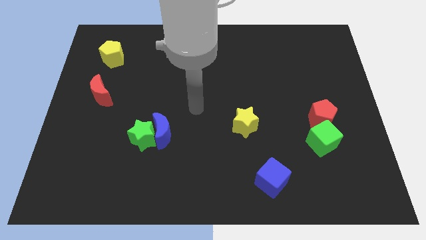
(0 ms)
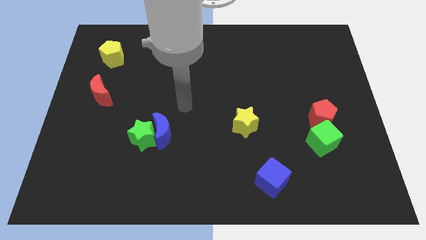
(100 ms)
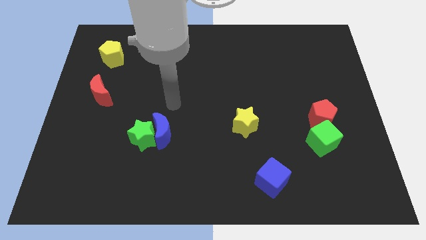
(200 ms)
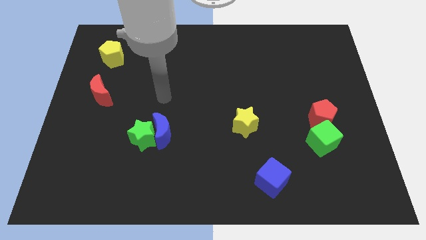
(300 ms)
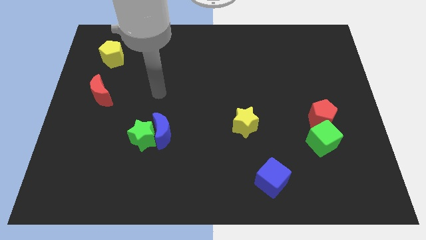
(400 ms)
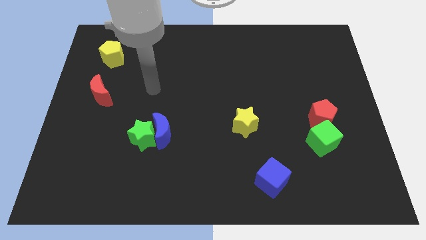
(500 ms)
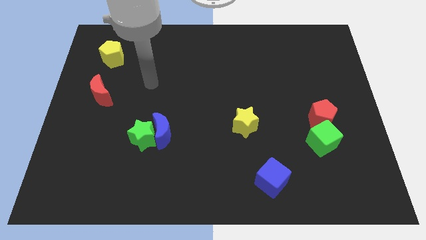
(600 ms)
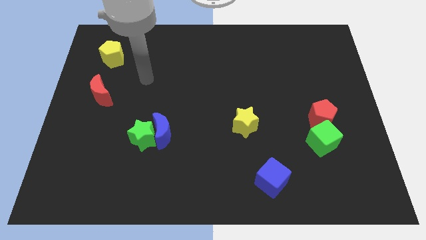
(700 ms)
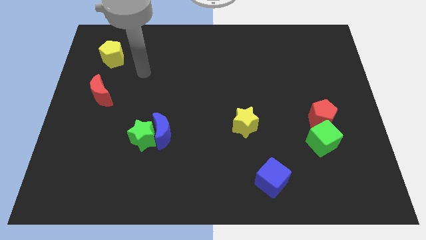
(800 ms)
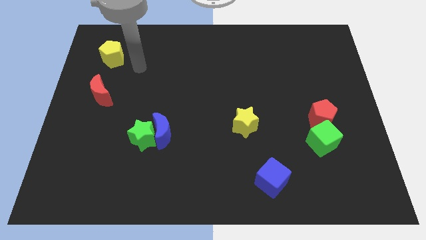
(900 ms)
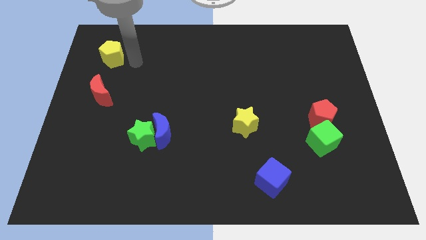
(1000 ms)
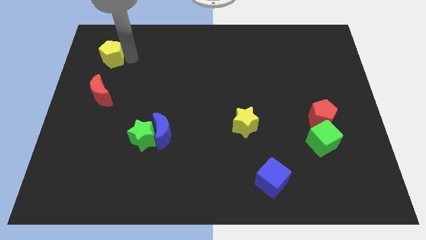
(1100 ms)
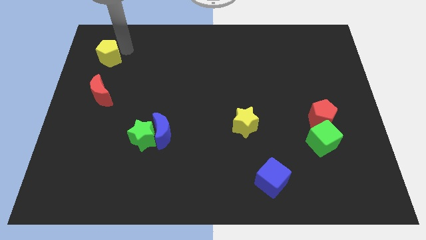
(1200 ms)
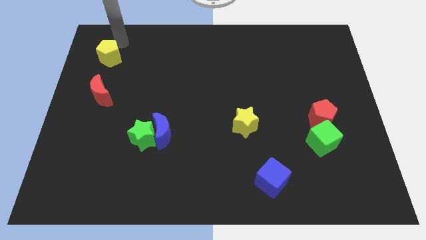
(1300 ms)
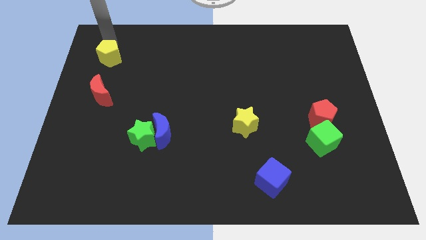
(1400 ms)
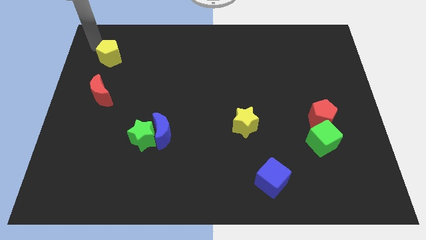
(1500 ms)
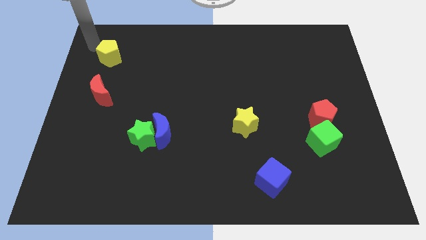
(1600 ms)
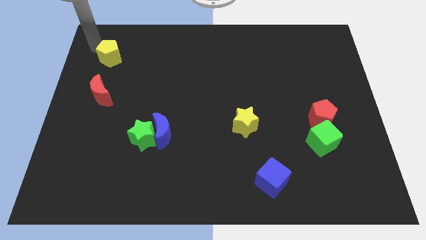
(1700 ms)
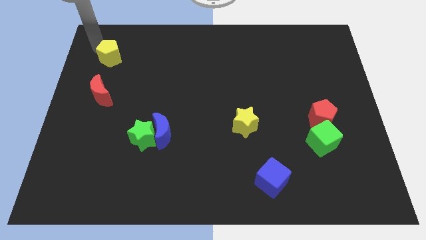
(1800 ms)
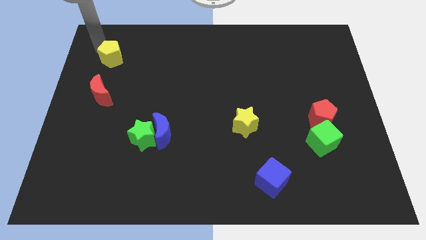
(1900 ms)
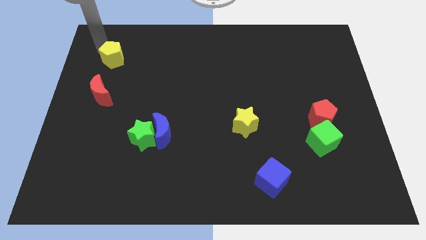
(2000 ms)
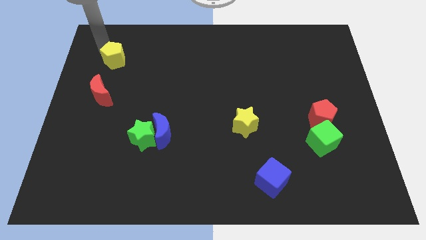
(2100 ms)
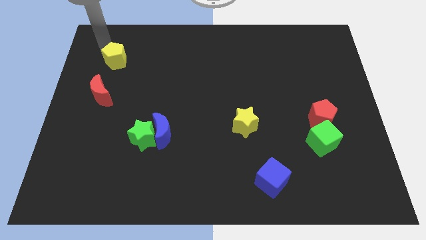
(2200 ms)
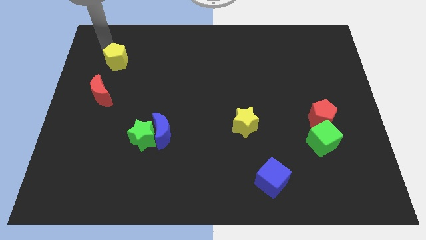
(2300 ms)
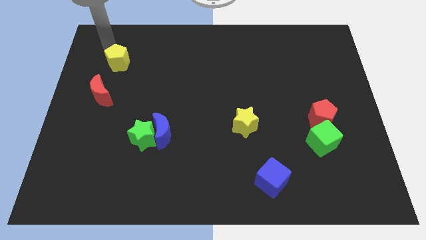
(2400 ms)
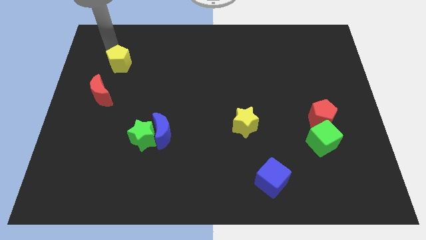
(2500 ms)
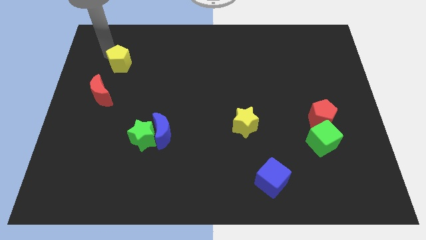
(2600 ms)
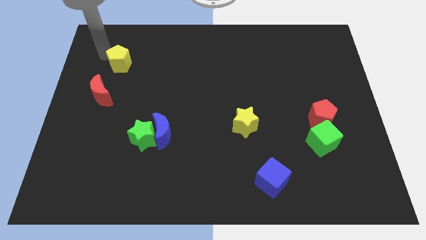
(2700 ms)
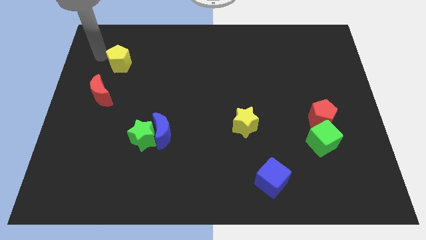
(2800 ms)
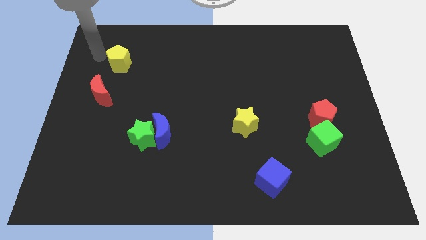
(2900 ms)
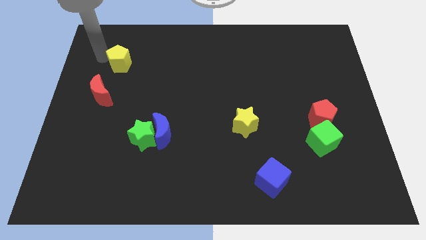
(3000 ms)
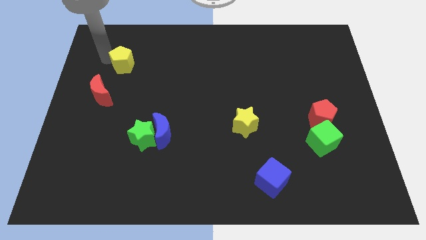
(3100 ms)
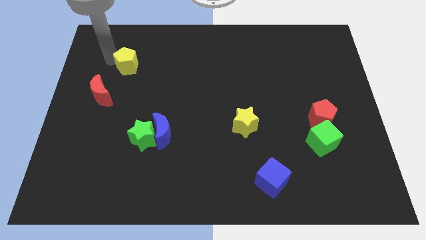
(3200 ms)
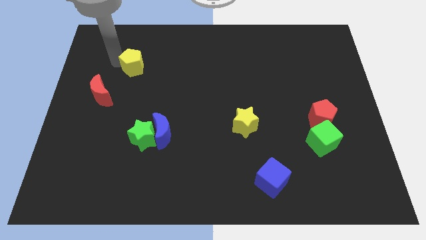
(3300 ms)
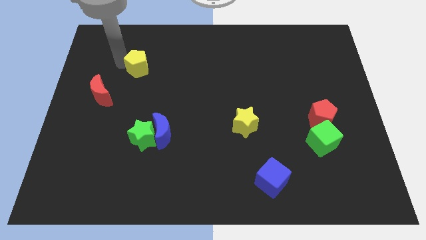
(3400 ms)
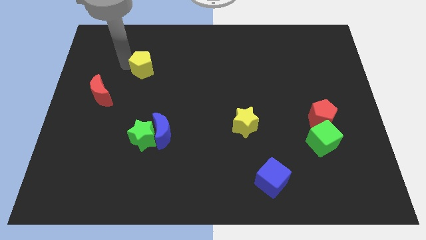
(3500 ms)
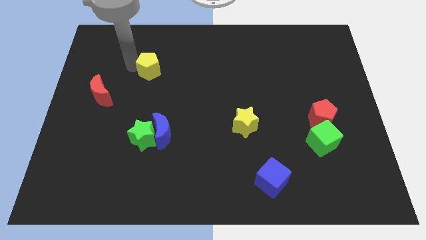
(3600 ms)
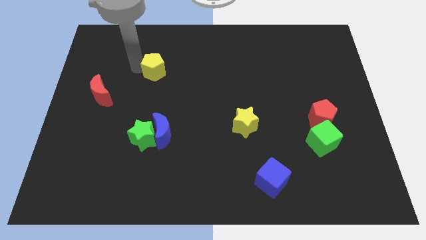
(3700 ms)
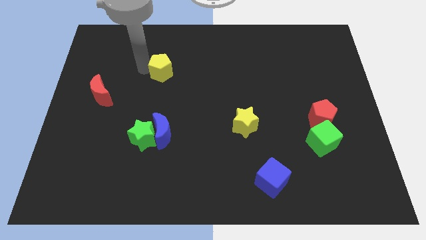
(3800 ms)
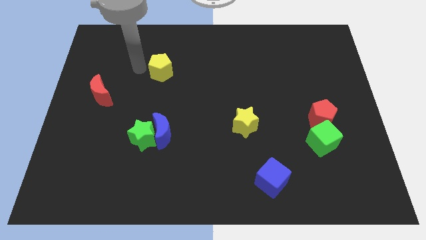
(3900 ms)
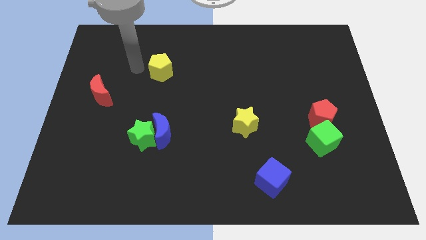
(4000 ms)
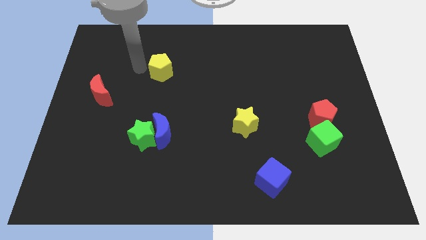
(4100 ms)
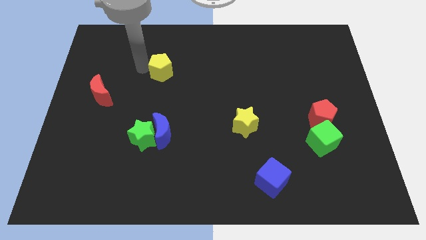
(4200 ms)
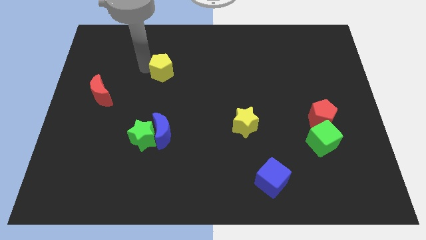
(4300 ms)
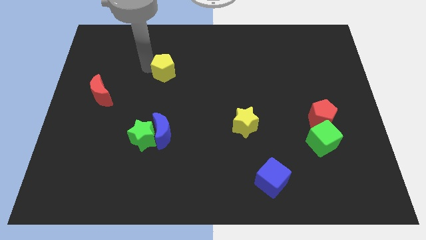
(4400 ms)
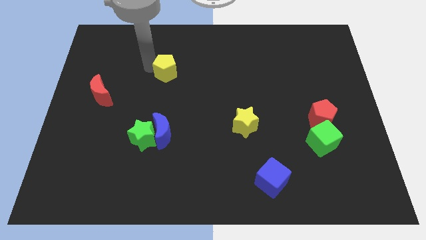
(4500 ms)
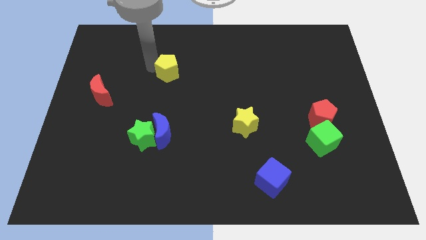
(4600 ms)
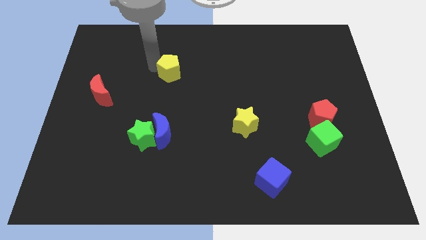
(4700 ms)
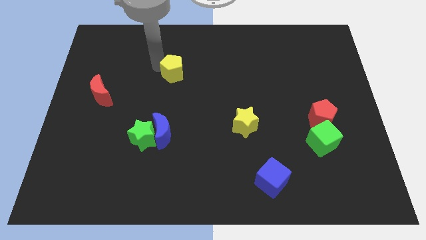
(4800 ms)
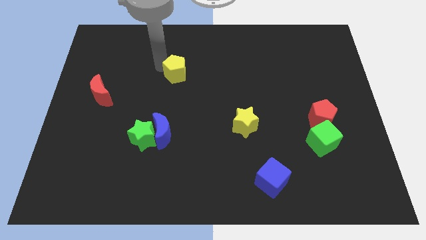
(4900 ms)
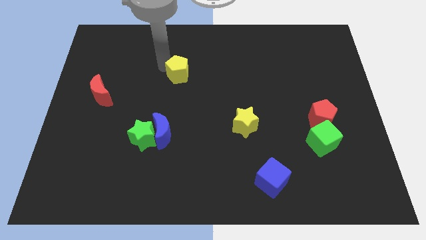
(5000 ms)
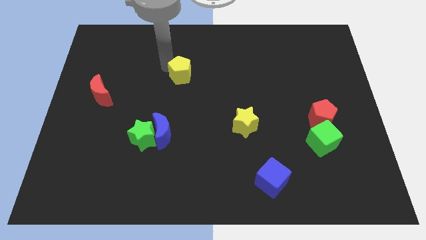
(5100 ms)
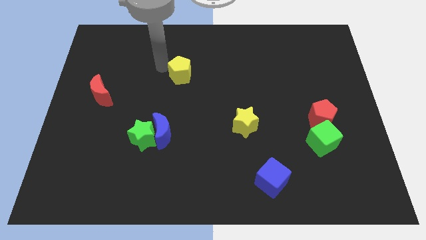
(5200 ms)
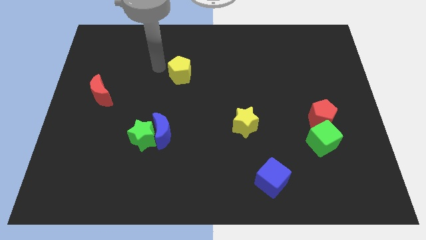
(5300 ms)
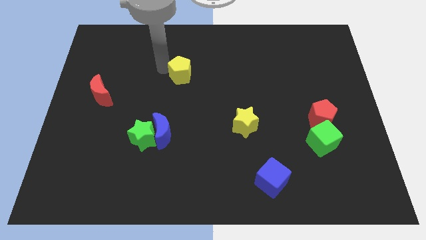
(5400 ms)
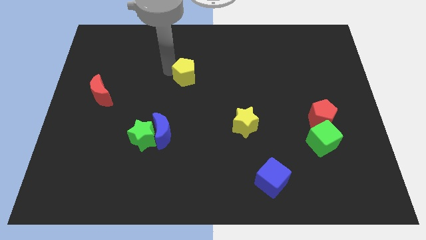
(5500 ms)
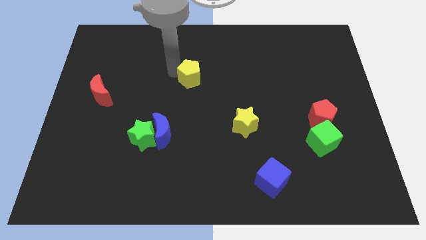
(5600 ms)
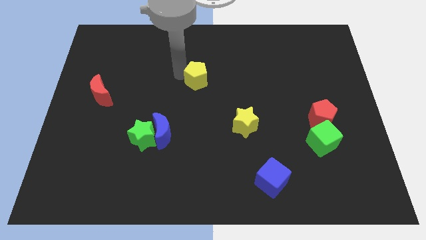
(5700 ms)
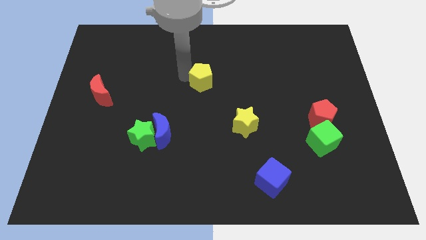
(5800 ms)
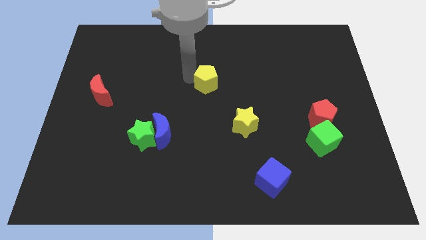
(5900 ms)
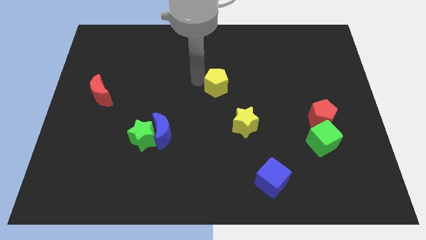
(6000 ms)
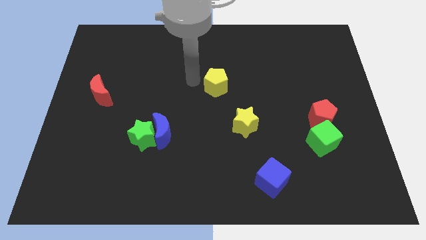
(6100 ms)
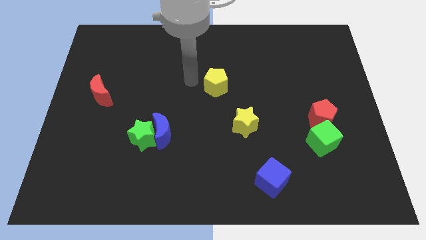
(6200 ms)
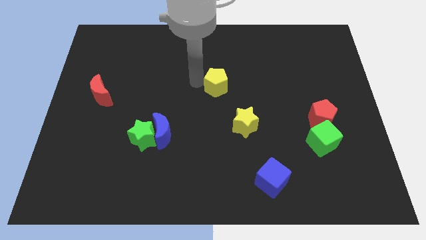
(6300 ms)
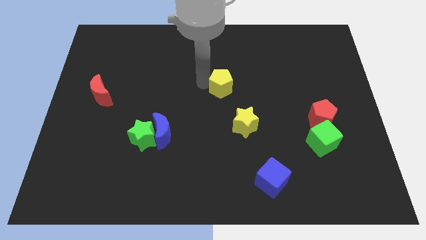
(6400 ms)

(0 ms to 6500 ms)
move the yellow pentagon above the yellow star

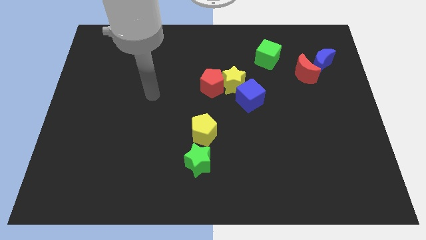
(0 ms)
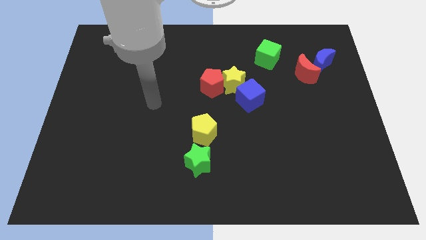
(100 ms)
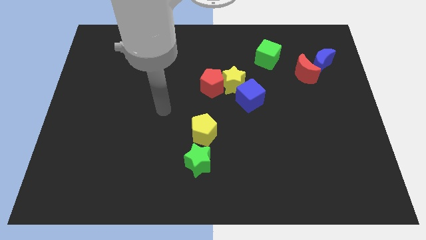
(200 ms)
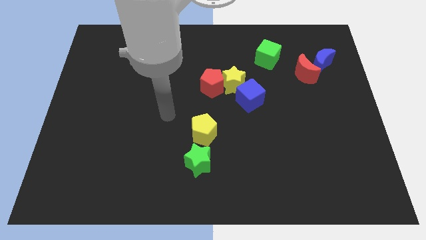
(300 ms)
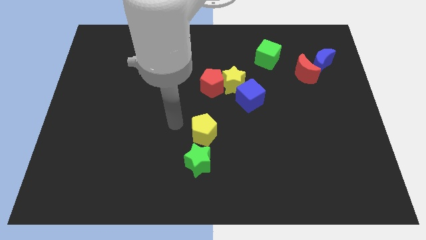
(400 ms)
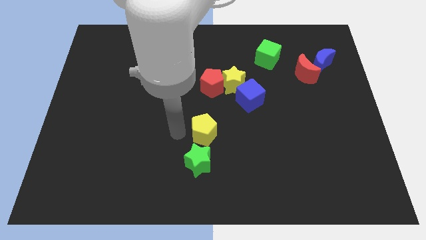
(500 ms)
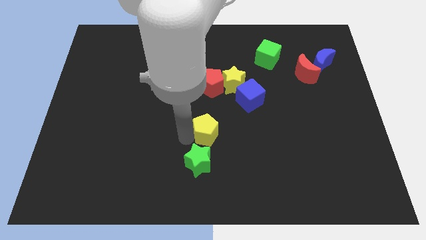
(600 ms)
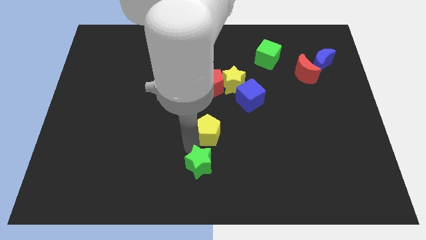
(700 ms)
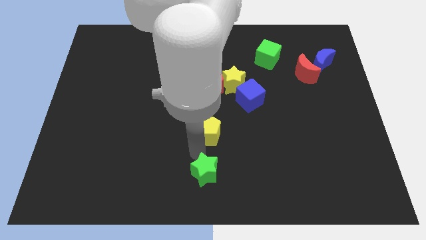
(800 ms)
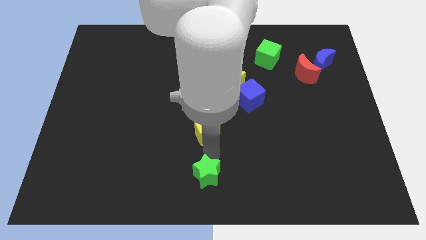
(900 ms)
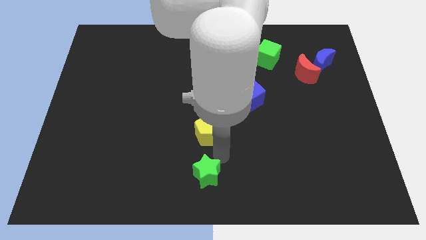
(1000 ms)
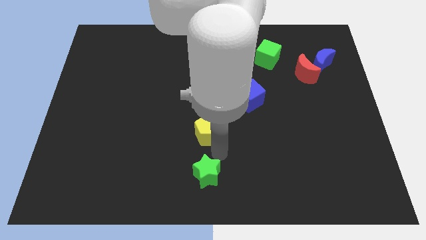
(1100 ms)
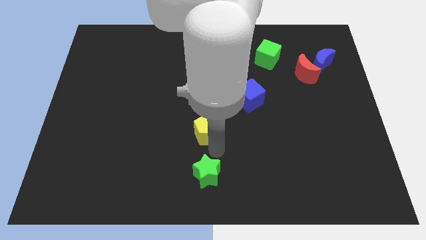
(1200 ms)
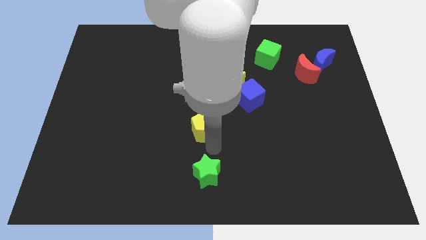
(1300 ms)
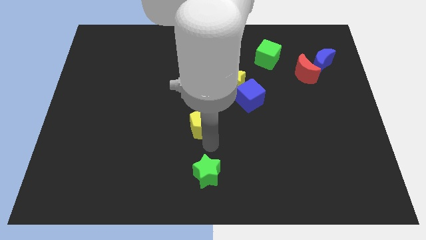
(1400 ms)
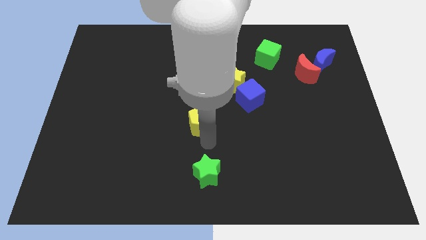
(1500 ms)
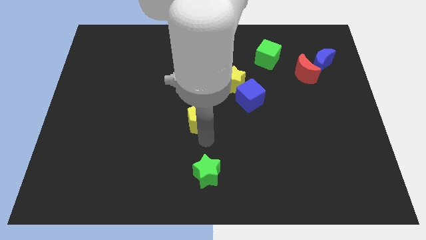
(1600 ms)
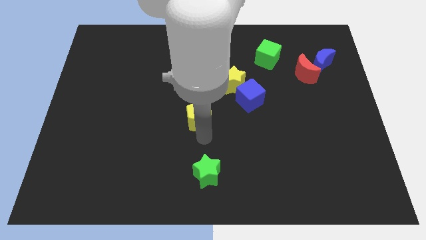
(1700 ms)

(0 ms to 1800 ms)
push the yellow pentagon to the bottom left side of the red pentagon

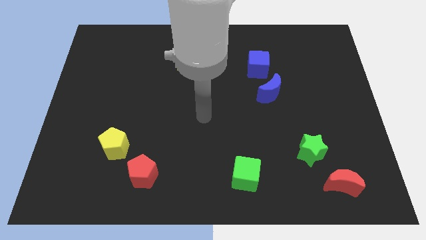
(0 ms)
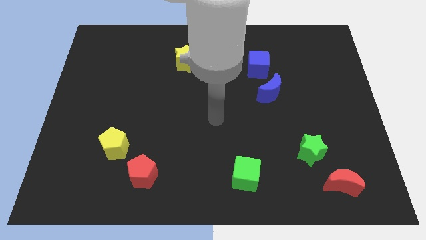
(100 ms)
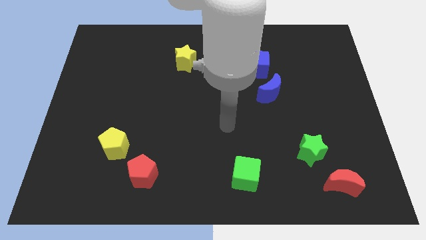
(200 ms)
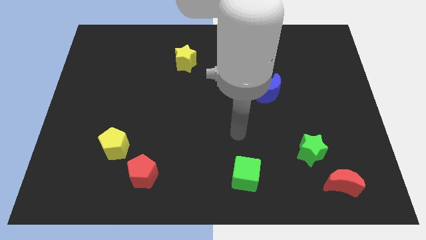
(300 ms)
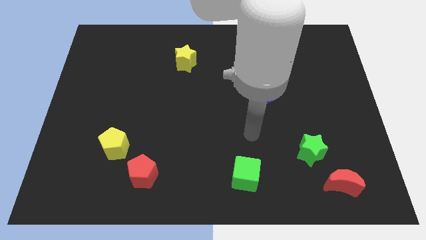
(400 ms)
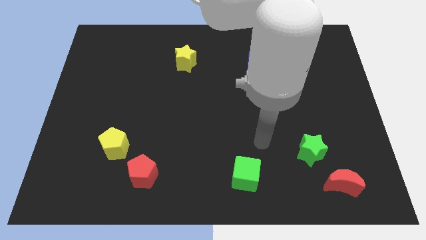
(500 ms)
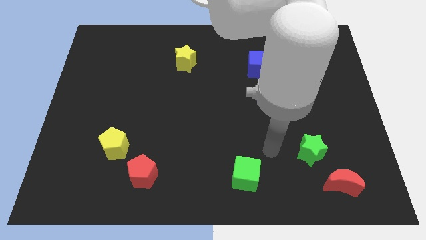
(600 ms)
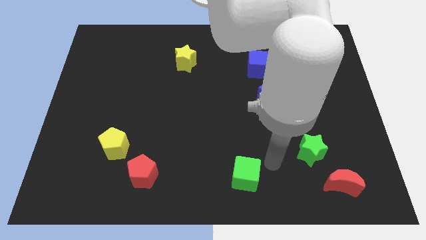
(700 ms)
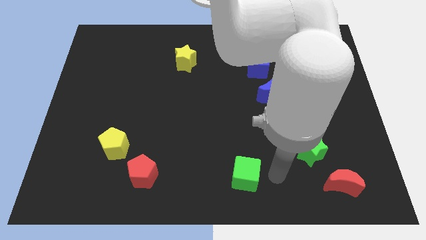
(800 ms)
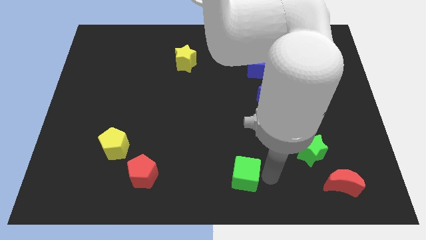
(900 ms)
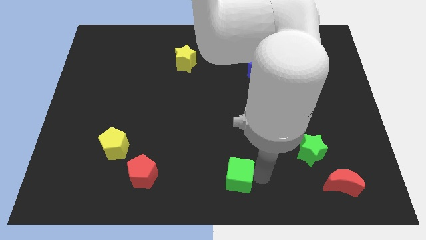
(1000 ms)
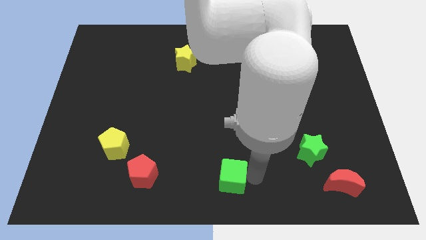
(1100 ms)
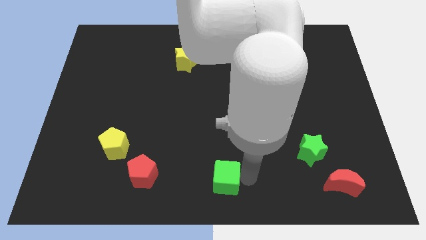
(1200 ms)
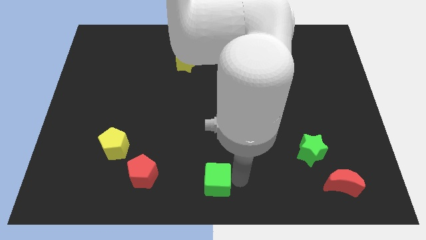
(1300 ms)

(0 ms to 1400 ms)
push the green cube right of the red pentagon
